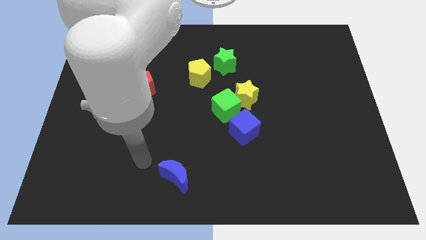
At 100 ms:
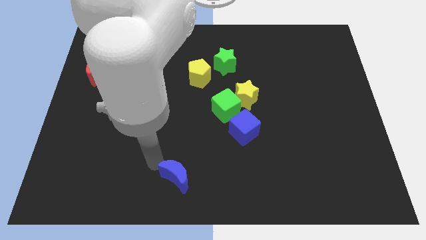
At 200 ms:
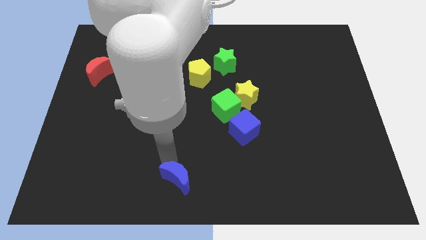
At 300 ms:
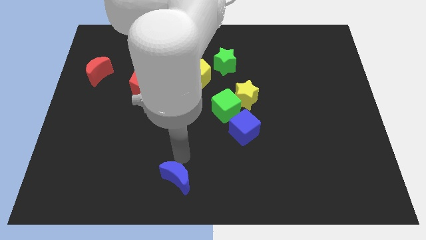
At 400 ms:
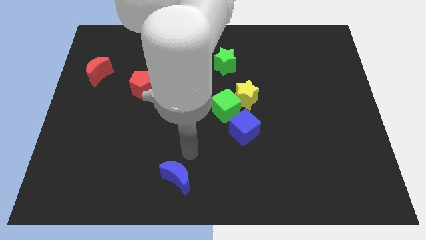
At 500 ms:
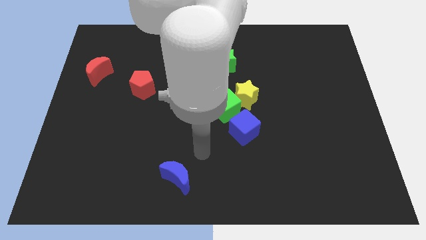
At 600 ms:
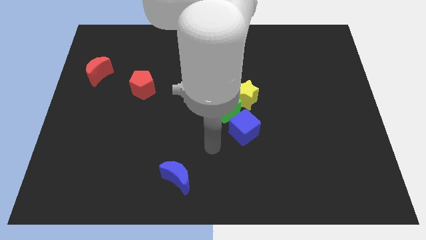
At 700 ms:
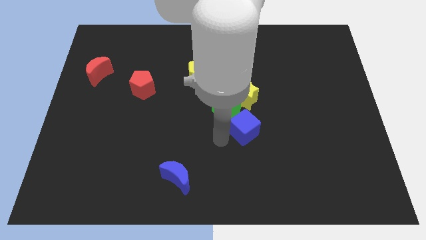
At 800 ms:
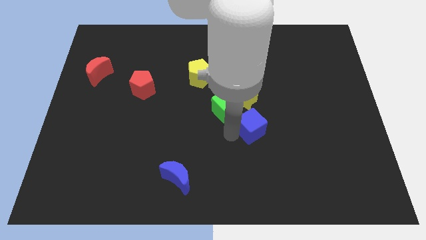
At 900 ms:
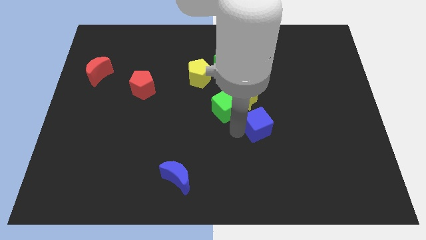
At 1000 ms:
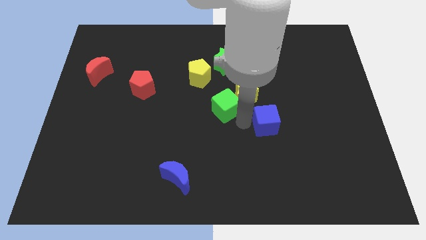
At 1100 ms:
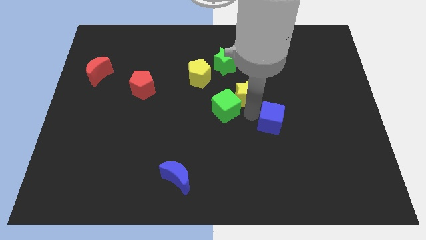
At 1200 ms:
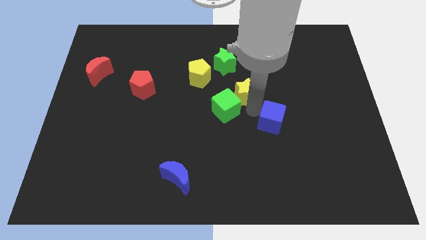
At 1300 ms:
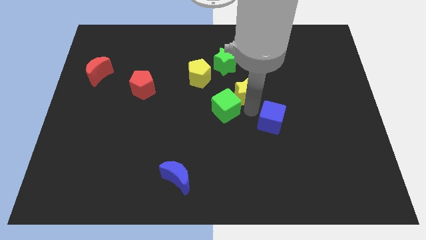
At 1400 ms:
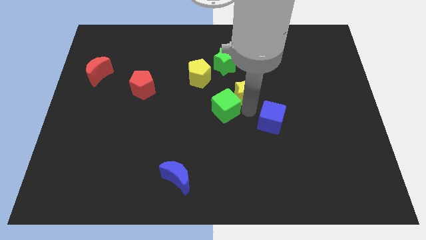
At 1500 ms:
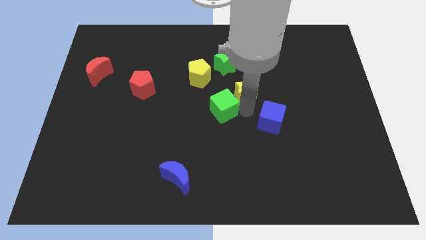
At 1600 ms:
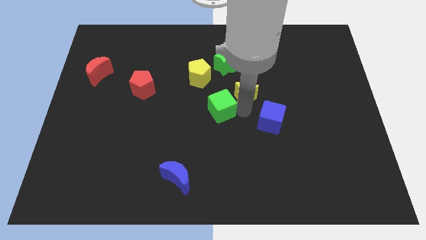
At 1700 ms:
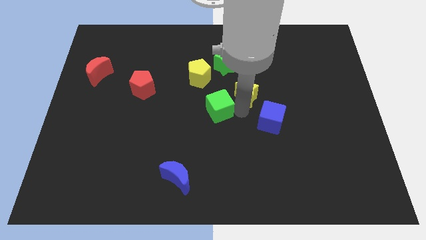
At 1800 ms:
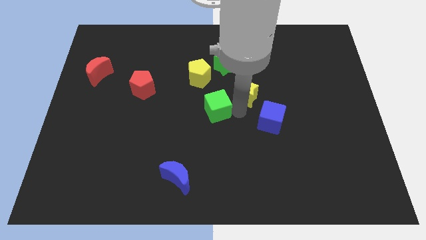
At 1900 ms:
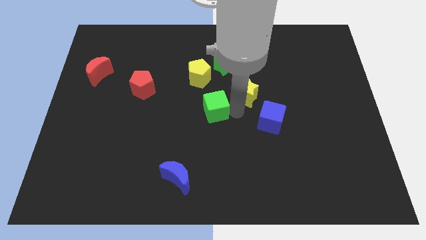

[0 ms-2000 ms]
pull the green cube apart from the yellow star and blue cube

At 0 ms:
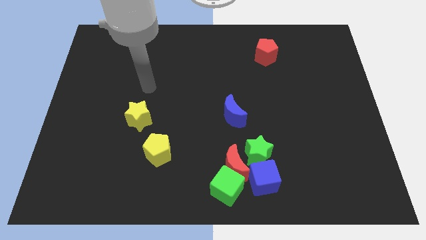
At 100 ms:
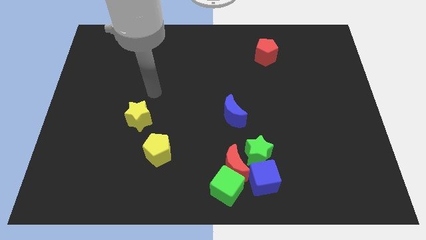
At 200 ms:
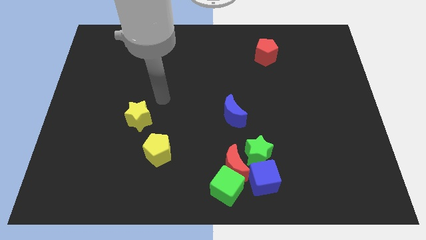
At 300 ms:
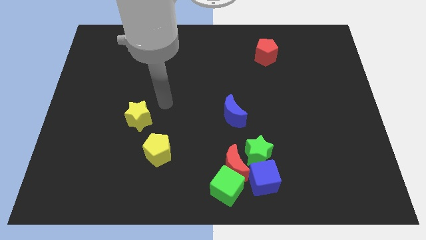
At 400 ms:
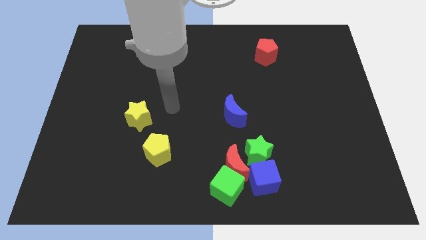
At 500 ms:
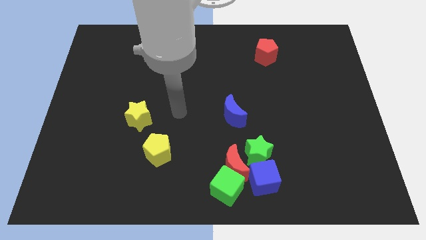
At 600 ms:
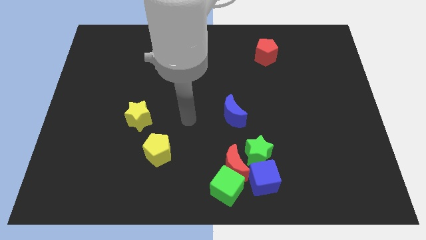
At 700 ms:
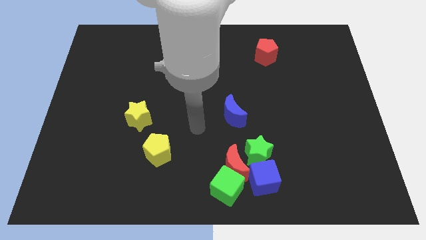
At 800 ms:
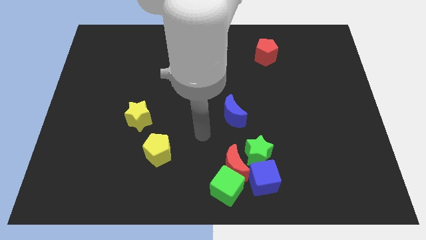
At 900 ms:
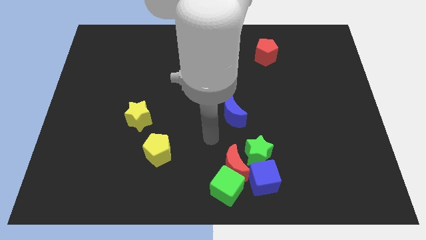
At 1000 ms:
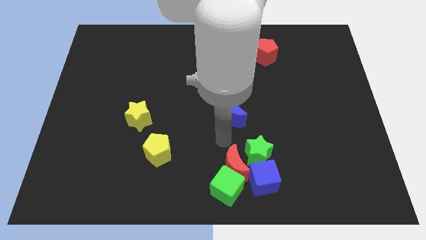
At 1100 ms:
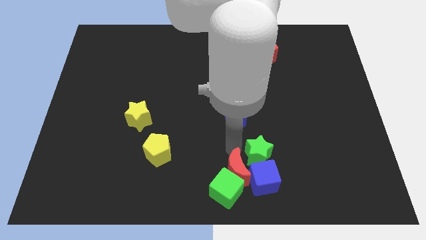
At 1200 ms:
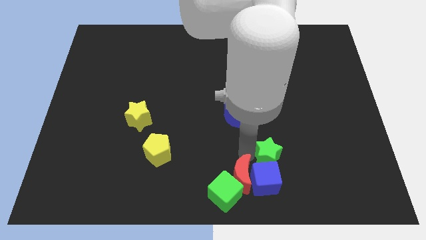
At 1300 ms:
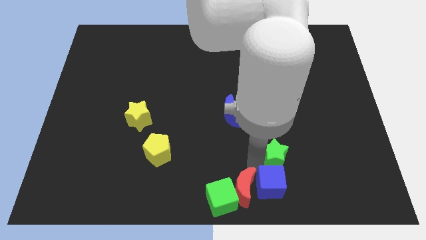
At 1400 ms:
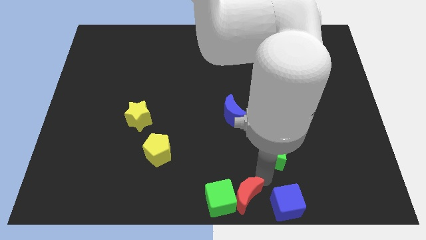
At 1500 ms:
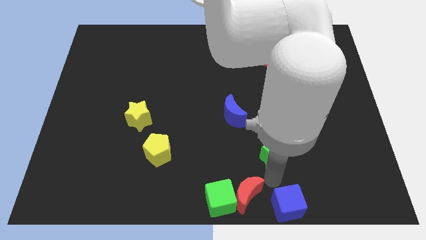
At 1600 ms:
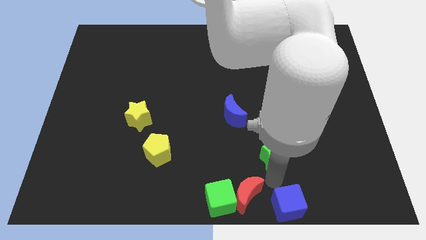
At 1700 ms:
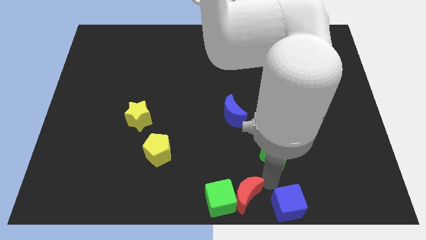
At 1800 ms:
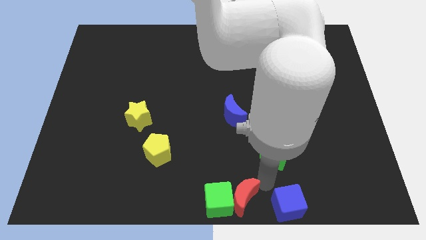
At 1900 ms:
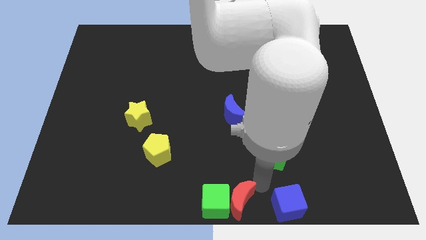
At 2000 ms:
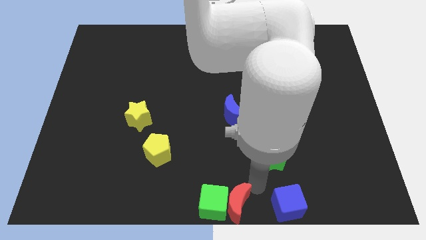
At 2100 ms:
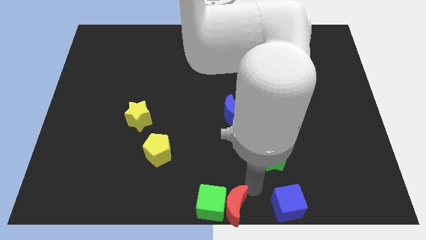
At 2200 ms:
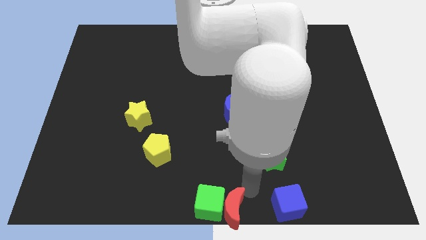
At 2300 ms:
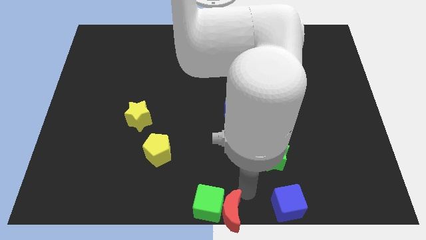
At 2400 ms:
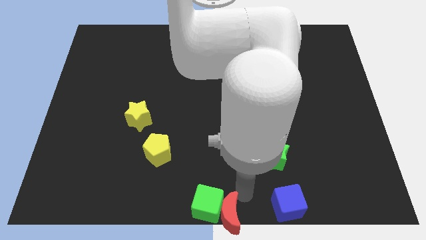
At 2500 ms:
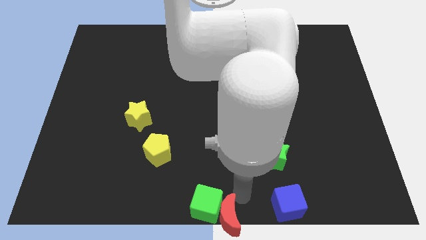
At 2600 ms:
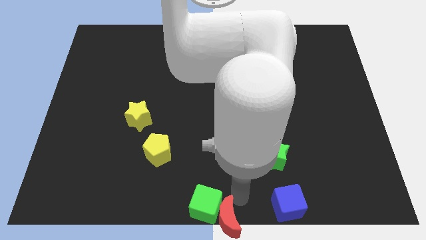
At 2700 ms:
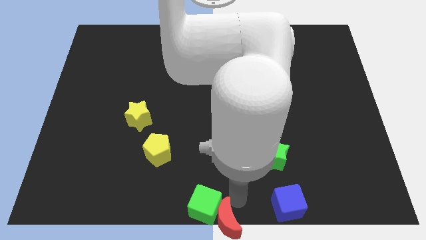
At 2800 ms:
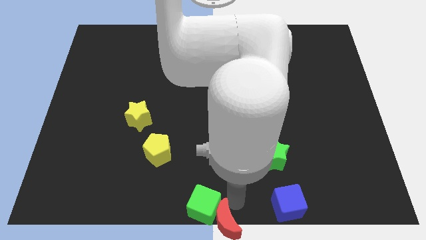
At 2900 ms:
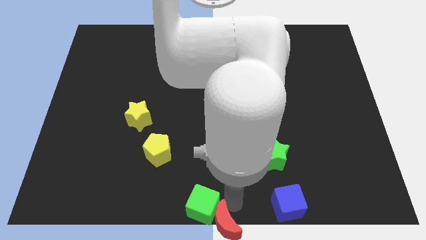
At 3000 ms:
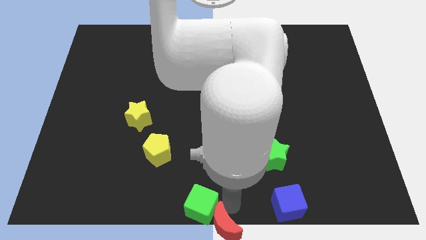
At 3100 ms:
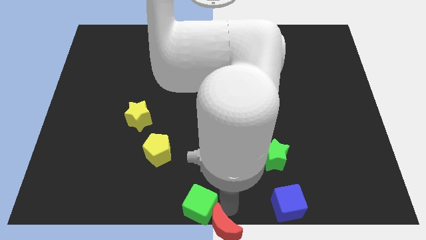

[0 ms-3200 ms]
move the red moon away from the green cube, green star, and blue cube

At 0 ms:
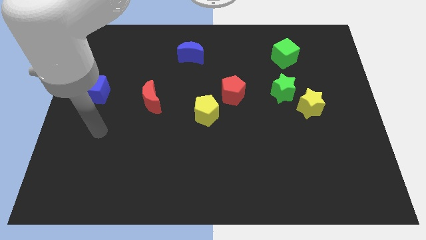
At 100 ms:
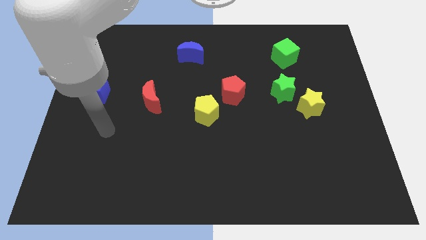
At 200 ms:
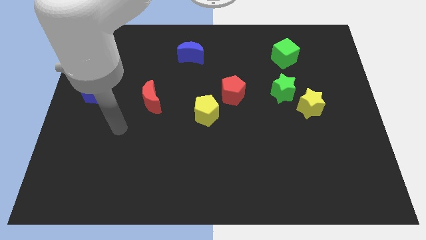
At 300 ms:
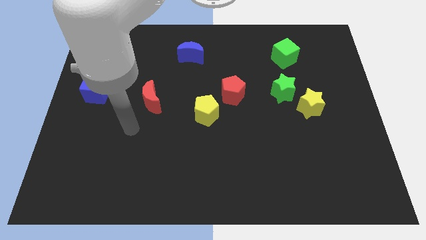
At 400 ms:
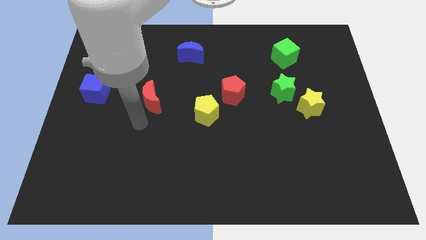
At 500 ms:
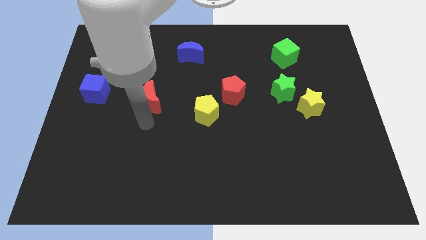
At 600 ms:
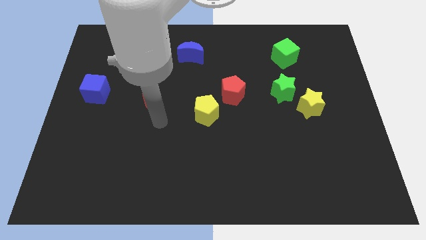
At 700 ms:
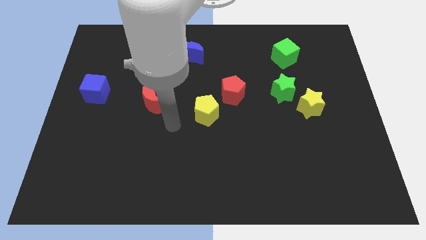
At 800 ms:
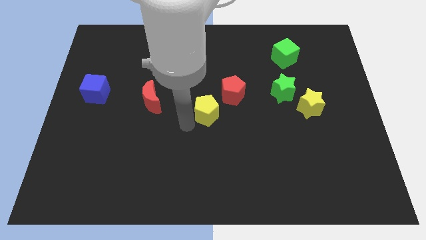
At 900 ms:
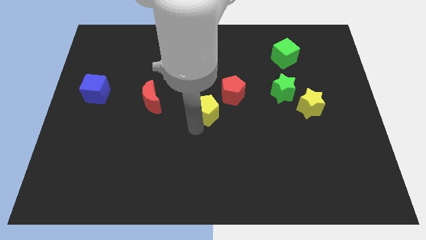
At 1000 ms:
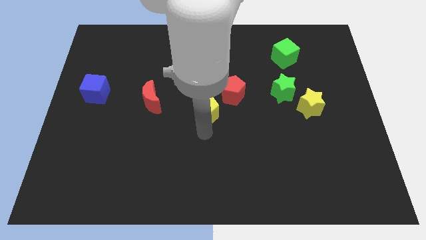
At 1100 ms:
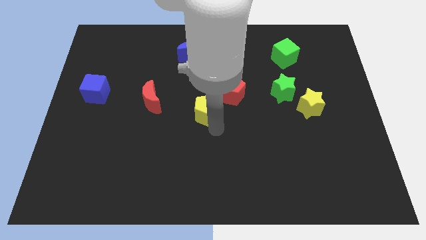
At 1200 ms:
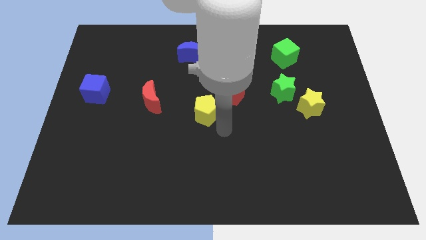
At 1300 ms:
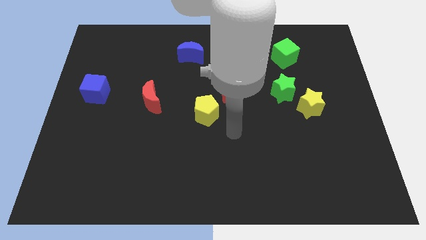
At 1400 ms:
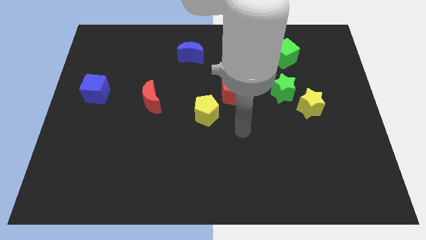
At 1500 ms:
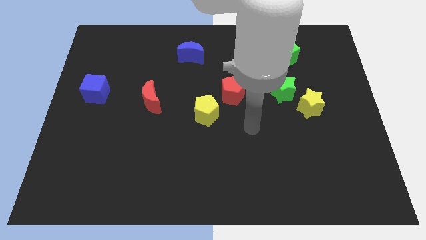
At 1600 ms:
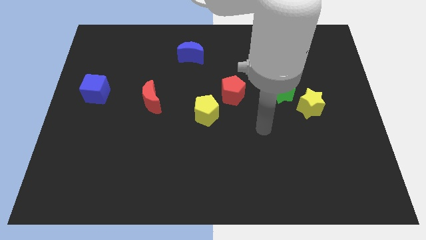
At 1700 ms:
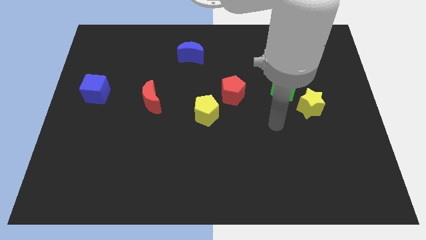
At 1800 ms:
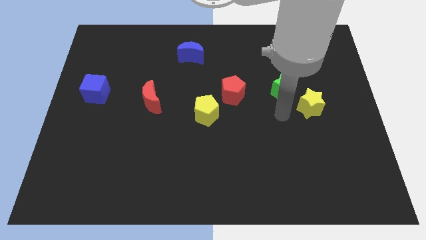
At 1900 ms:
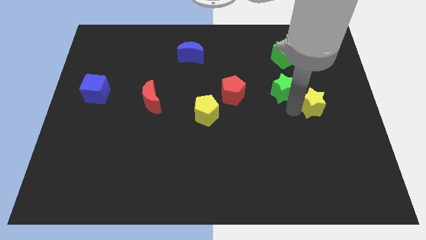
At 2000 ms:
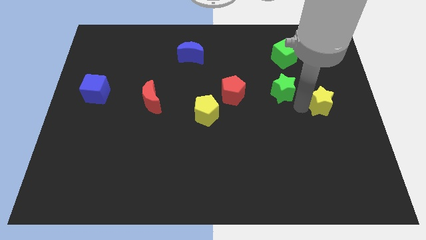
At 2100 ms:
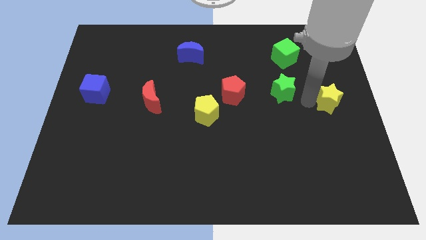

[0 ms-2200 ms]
move the green star away from the yellow star

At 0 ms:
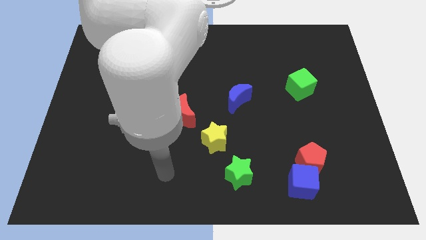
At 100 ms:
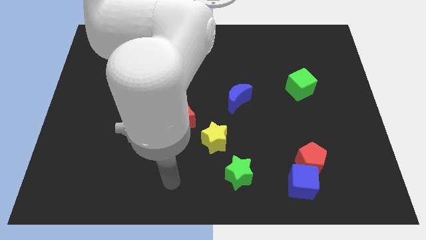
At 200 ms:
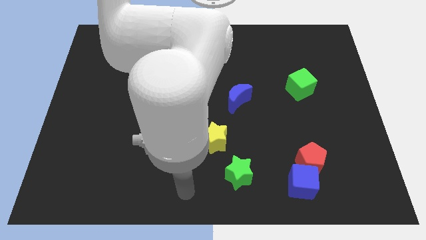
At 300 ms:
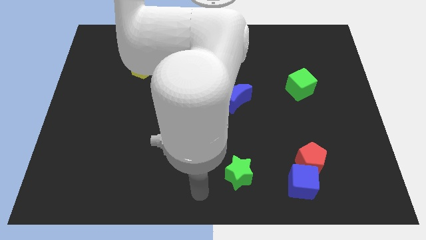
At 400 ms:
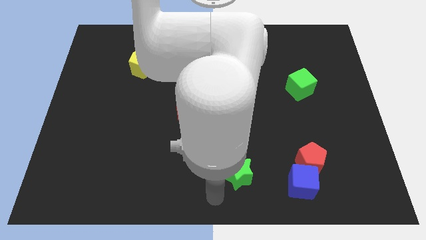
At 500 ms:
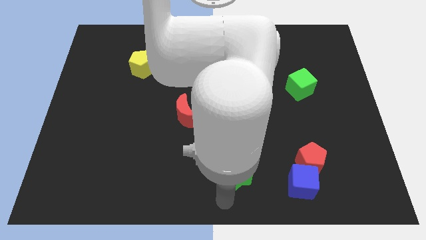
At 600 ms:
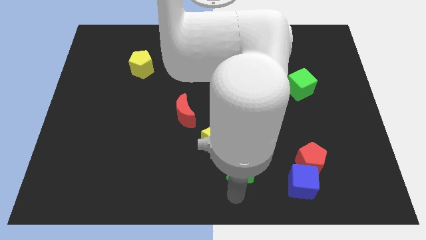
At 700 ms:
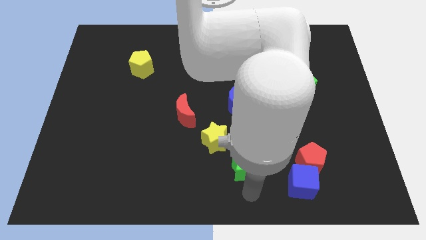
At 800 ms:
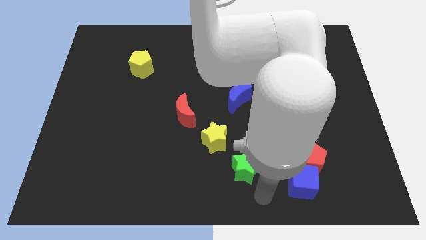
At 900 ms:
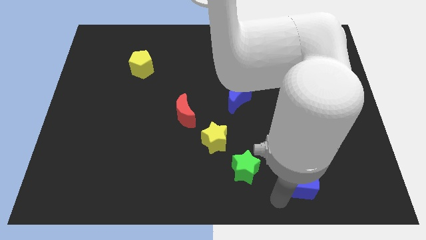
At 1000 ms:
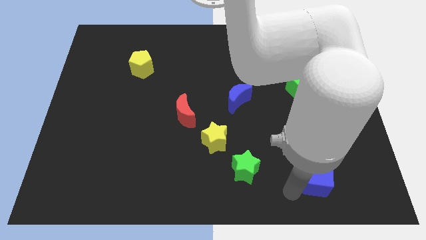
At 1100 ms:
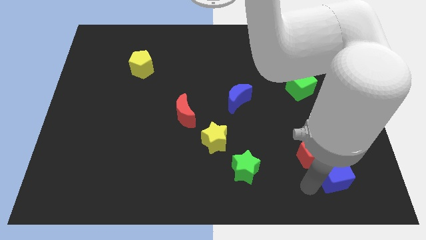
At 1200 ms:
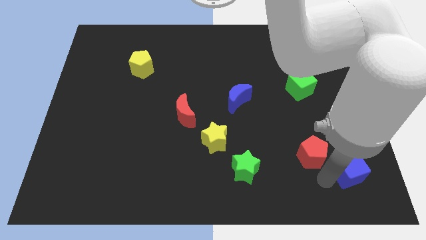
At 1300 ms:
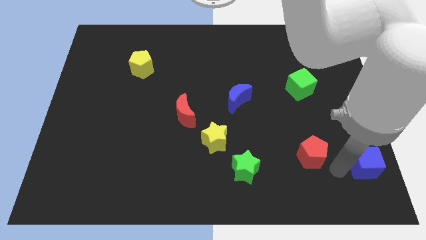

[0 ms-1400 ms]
separate the red pentagon from the blue cube

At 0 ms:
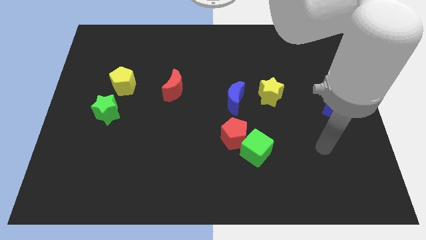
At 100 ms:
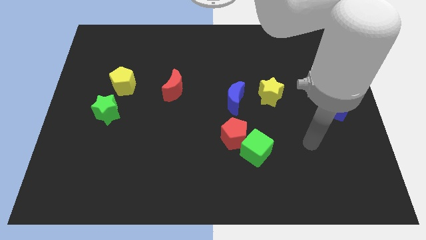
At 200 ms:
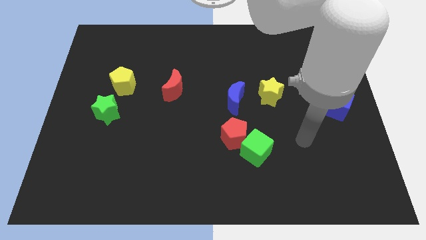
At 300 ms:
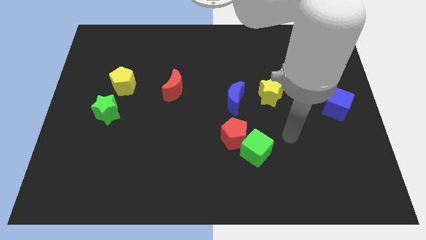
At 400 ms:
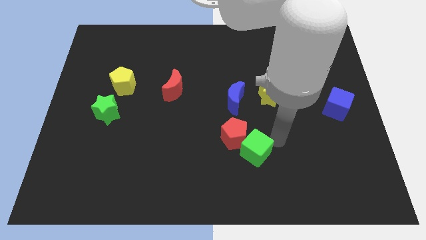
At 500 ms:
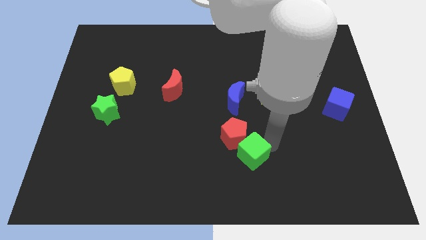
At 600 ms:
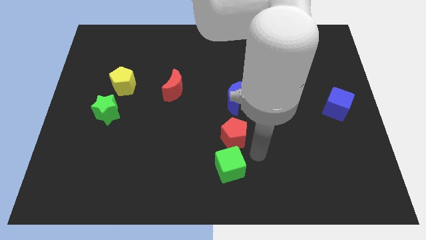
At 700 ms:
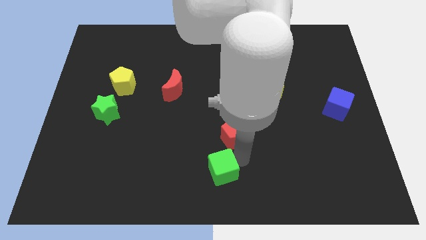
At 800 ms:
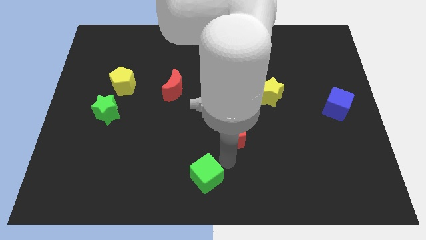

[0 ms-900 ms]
separate the red pentagon from the green cube
